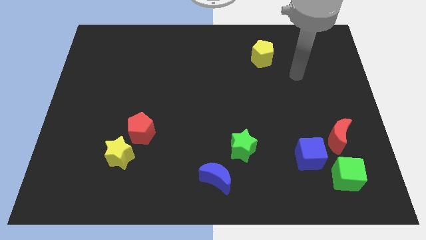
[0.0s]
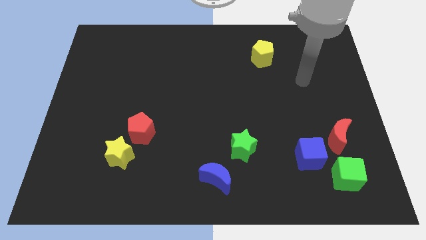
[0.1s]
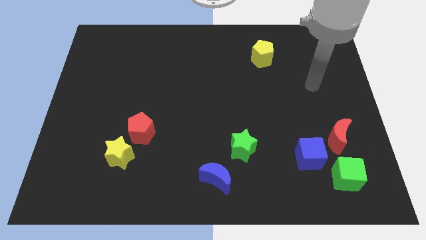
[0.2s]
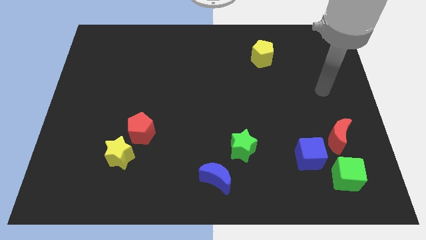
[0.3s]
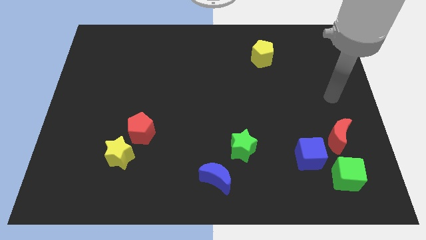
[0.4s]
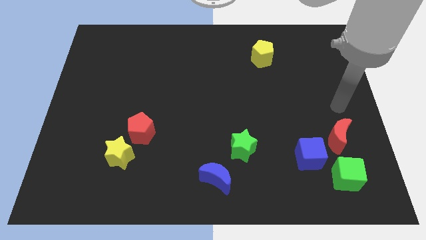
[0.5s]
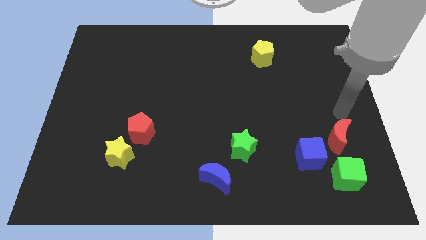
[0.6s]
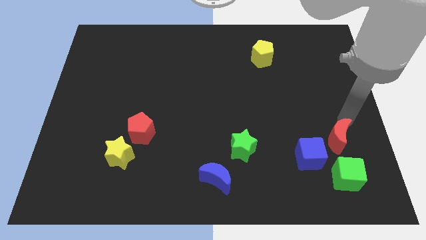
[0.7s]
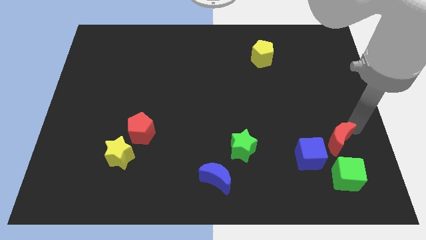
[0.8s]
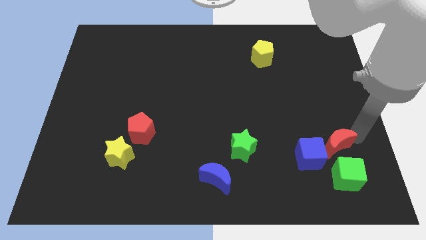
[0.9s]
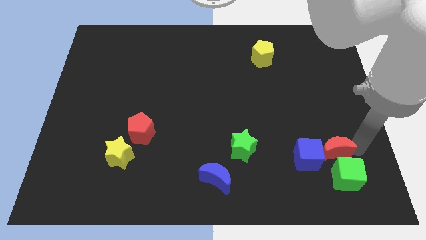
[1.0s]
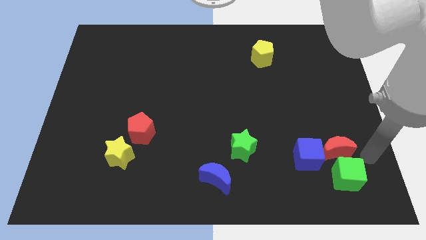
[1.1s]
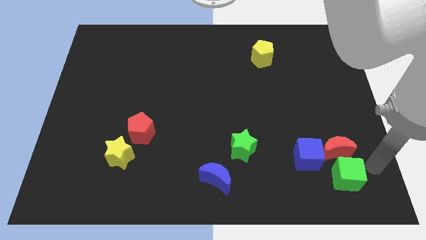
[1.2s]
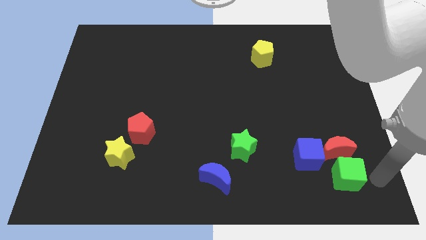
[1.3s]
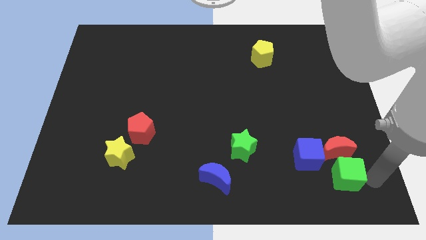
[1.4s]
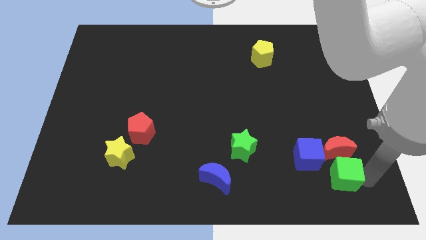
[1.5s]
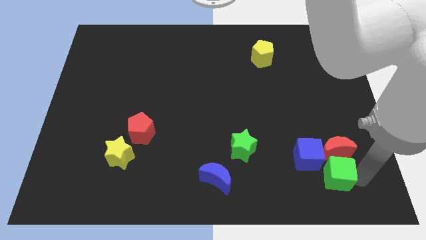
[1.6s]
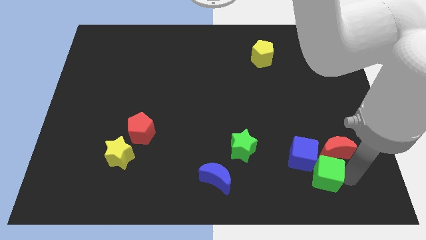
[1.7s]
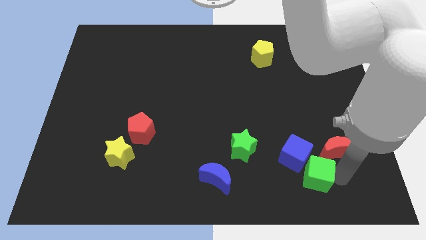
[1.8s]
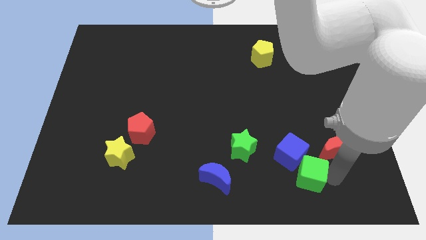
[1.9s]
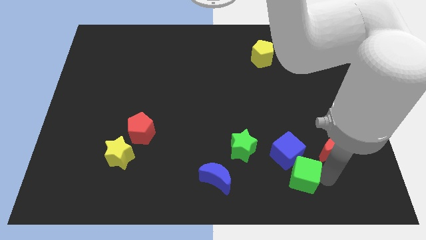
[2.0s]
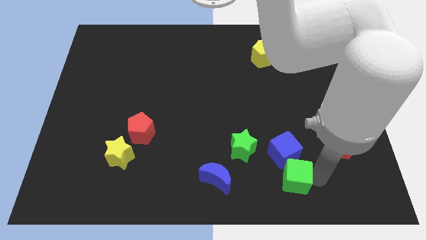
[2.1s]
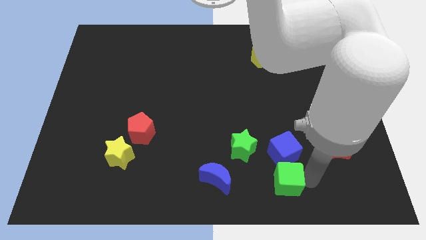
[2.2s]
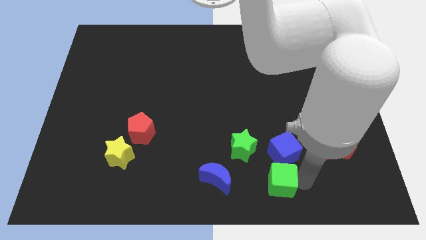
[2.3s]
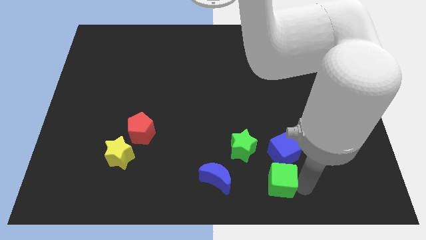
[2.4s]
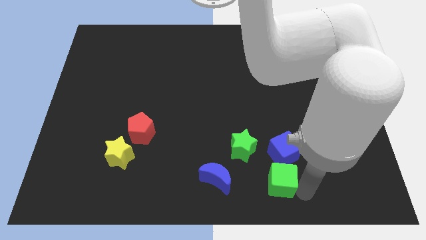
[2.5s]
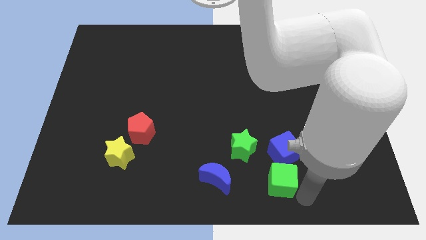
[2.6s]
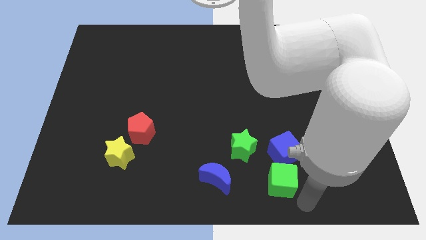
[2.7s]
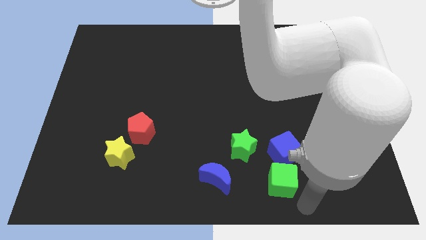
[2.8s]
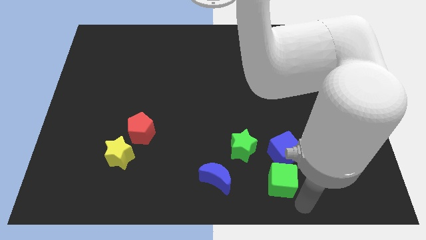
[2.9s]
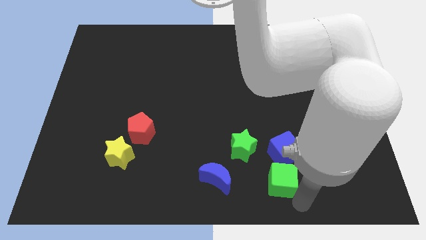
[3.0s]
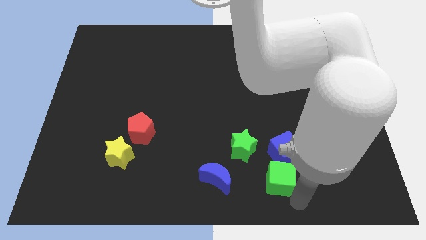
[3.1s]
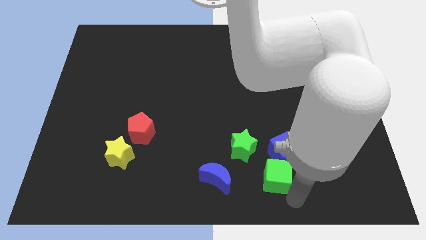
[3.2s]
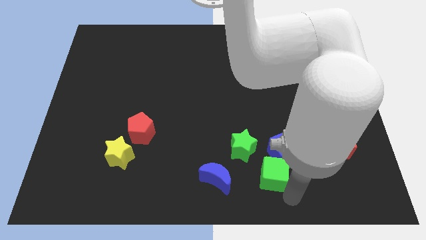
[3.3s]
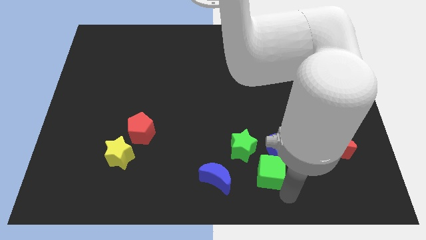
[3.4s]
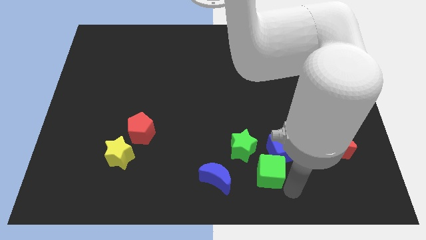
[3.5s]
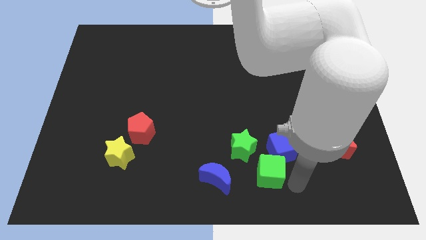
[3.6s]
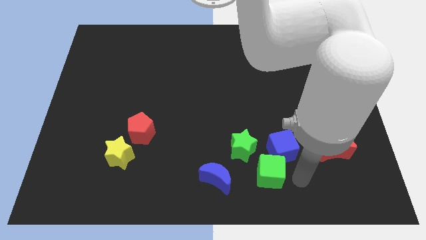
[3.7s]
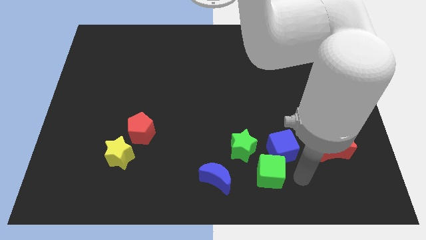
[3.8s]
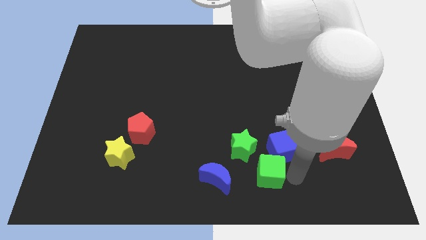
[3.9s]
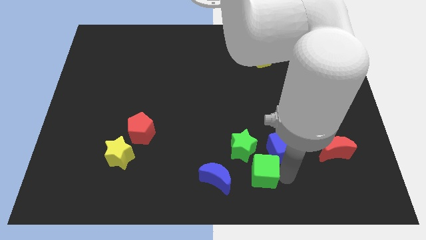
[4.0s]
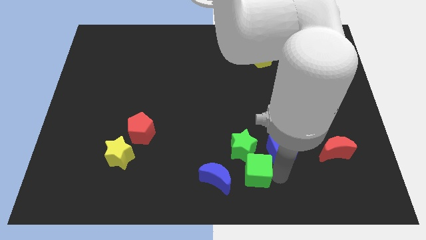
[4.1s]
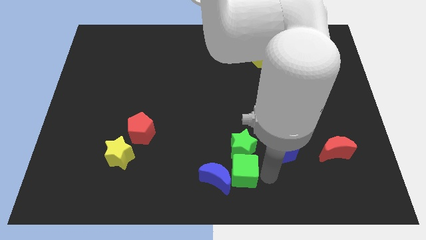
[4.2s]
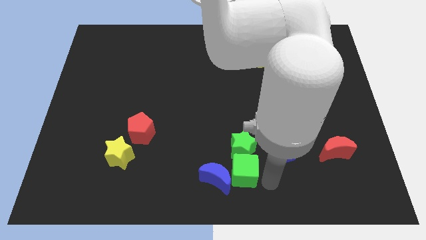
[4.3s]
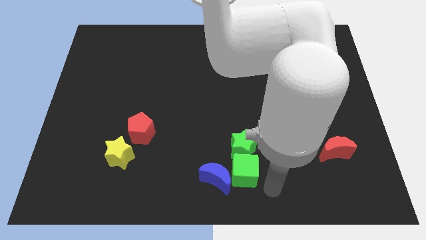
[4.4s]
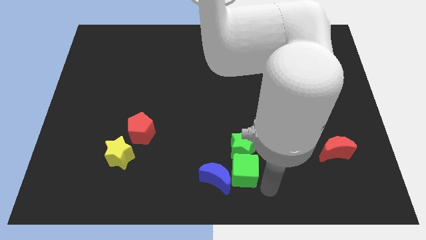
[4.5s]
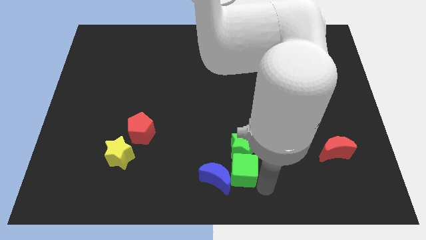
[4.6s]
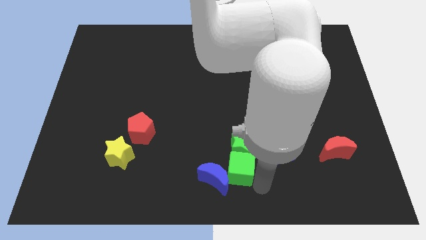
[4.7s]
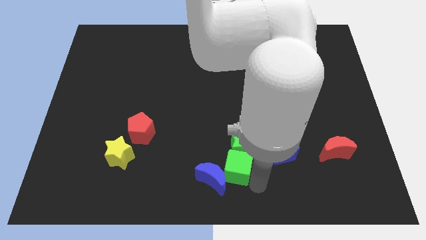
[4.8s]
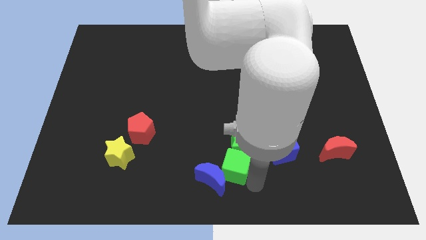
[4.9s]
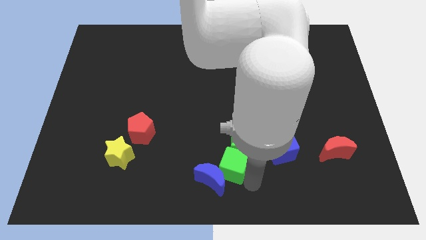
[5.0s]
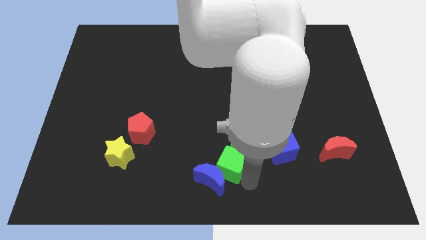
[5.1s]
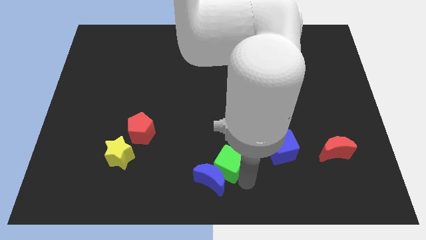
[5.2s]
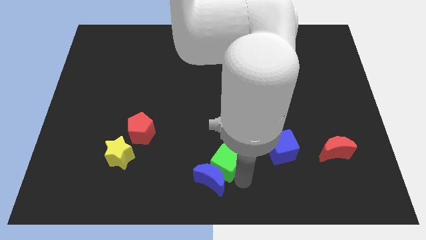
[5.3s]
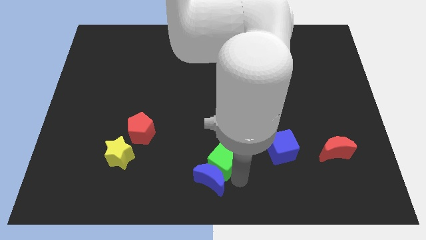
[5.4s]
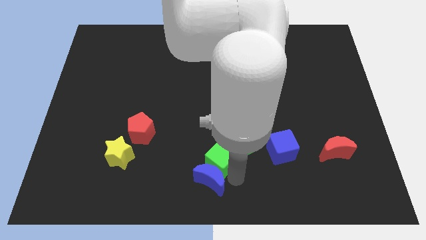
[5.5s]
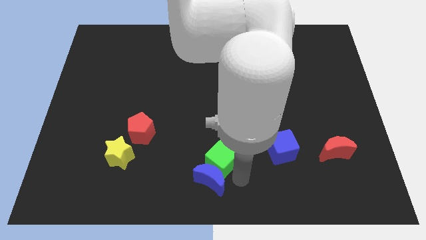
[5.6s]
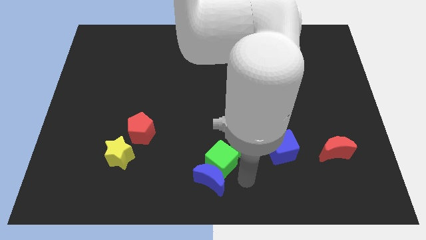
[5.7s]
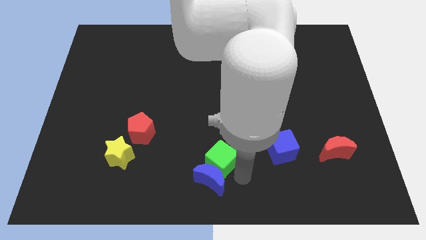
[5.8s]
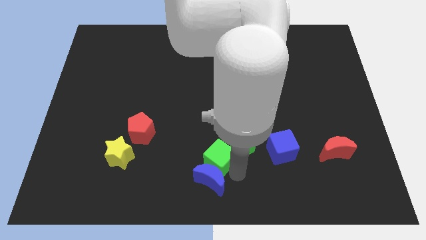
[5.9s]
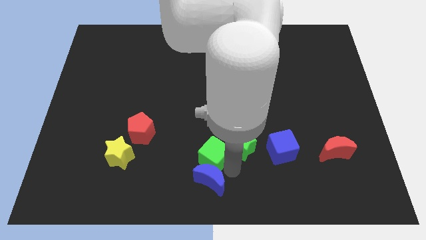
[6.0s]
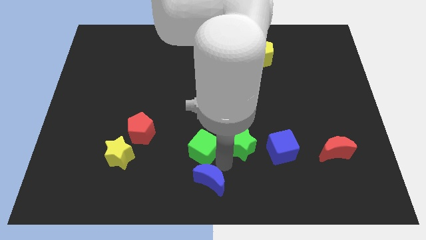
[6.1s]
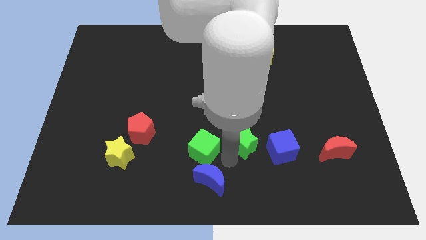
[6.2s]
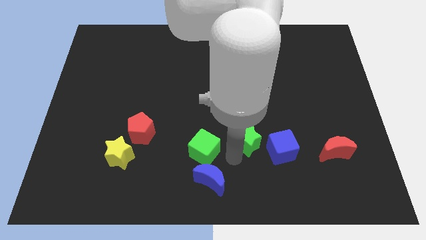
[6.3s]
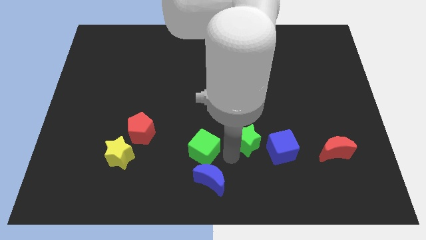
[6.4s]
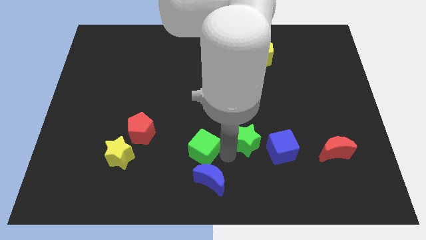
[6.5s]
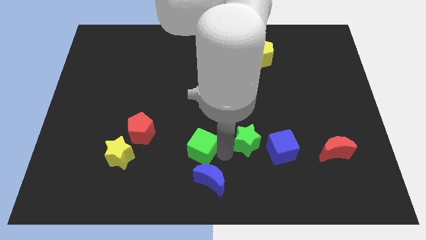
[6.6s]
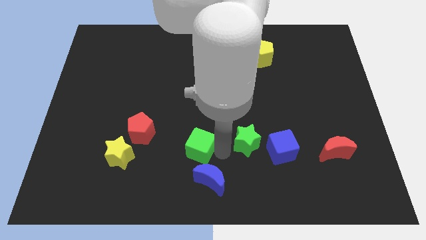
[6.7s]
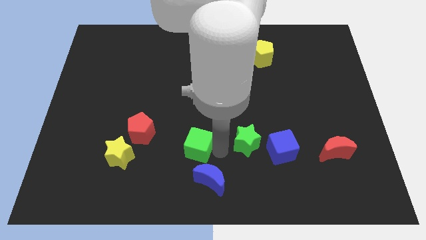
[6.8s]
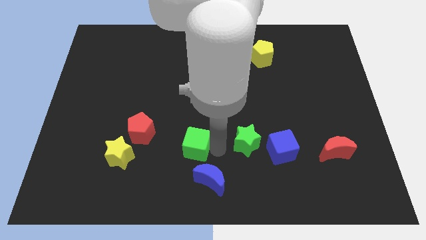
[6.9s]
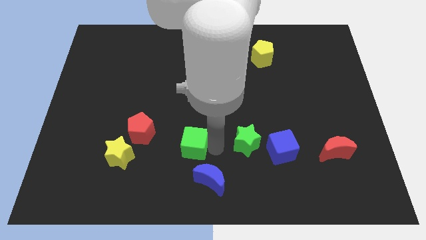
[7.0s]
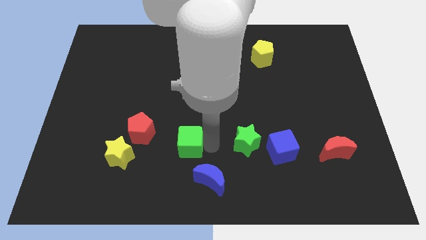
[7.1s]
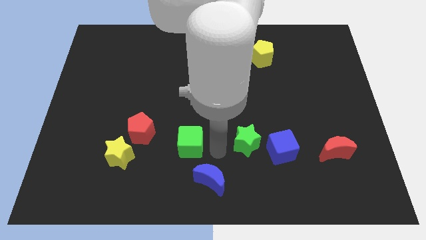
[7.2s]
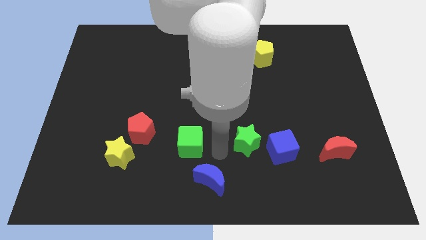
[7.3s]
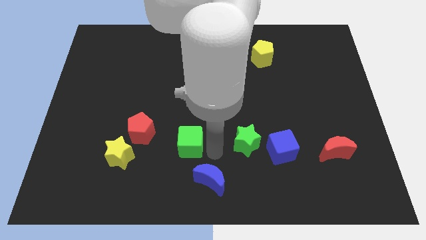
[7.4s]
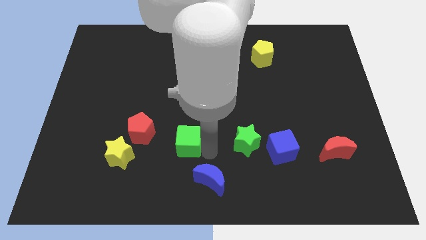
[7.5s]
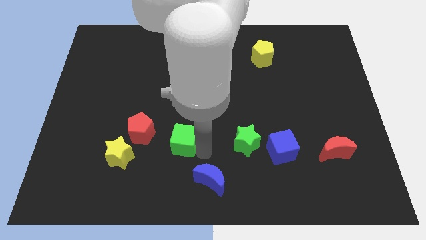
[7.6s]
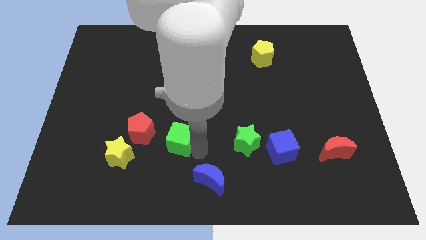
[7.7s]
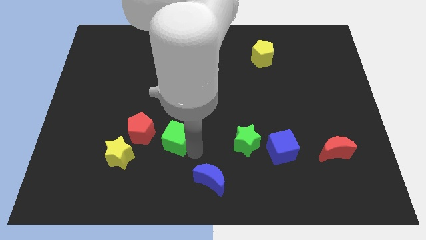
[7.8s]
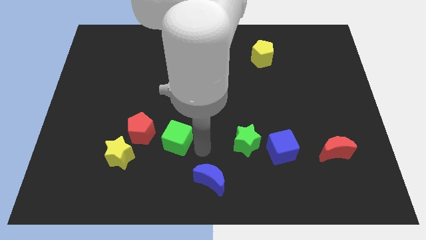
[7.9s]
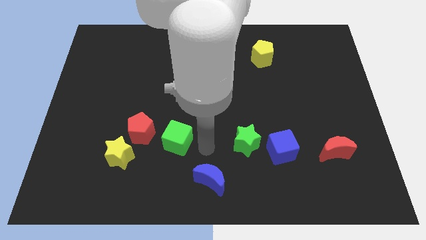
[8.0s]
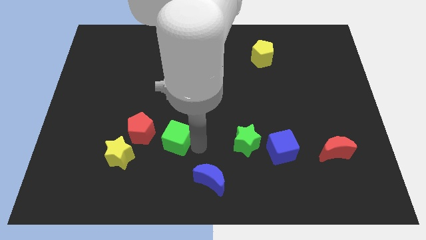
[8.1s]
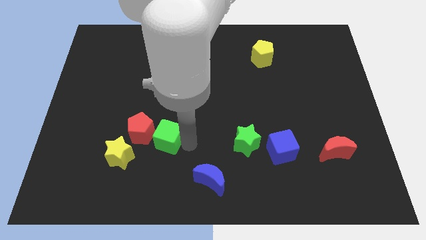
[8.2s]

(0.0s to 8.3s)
slide the green cube towards the red pentagon

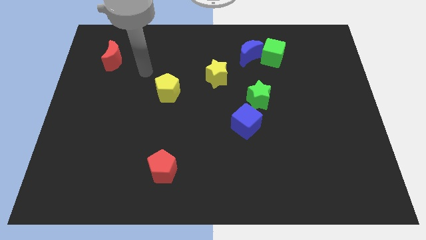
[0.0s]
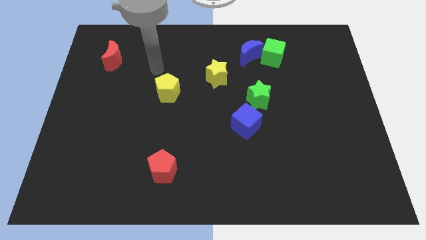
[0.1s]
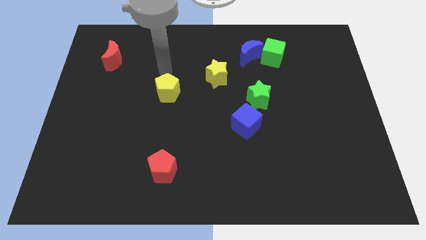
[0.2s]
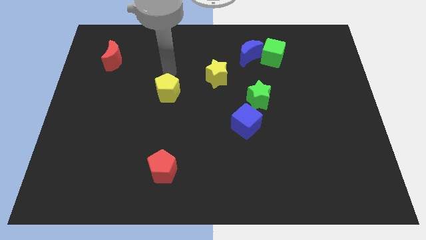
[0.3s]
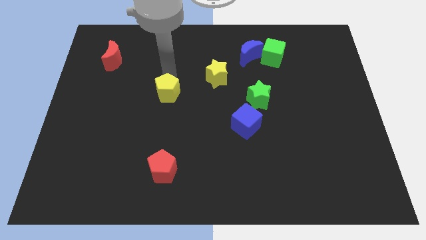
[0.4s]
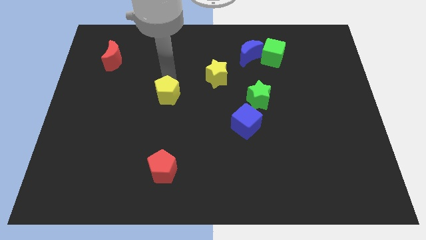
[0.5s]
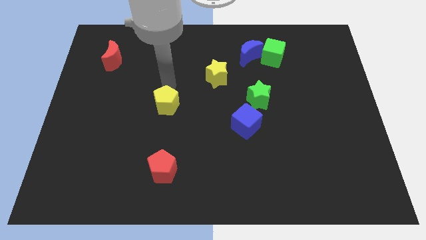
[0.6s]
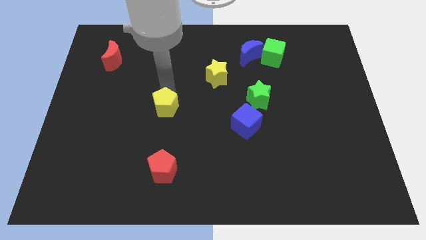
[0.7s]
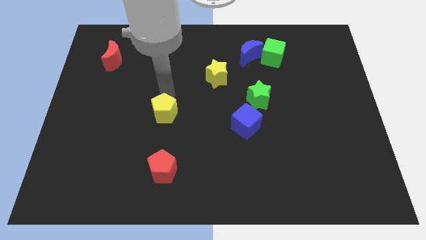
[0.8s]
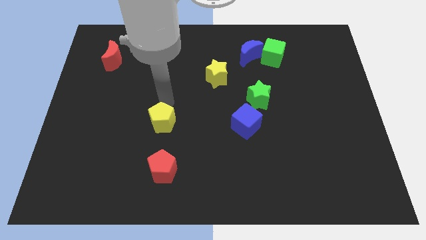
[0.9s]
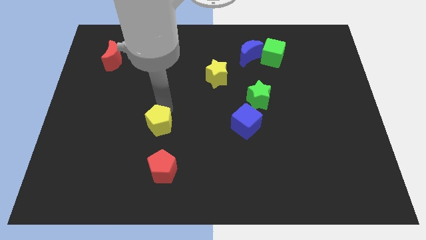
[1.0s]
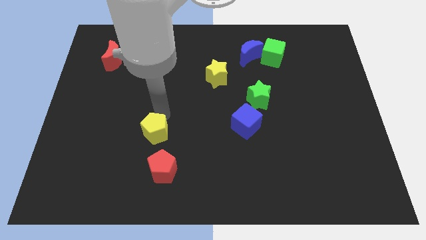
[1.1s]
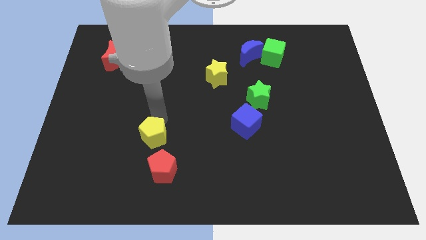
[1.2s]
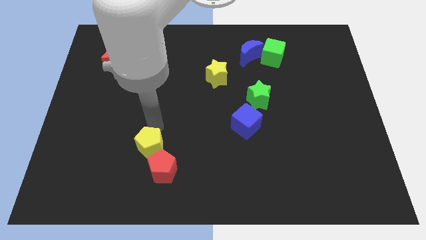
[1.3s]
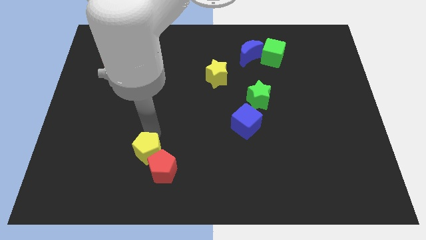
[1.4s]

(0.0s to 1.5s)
put the yellow pentagon close to the red pentagon
